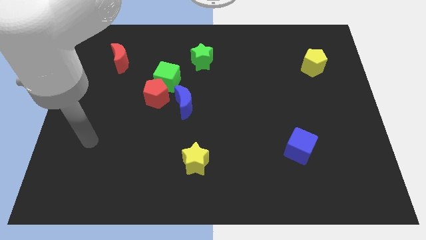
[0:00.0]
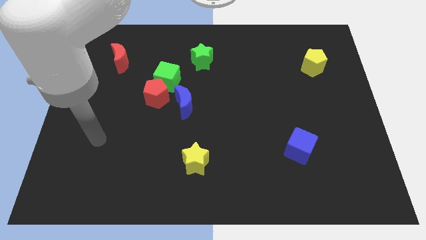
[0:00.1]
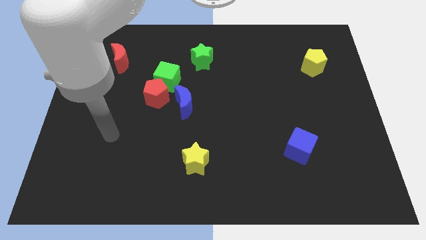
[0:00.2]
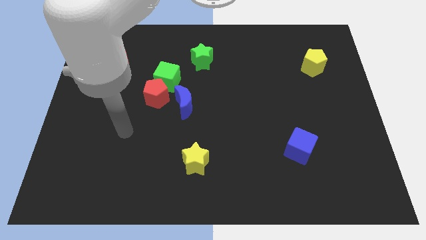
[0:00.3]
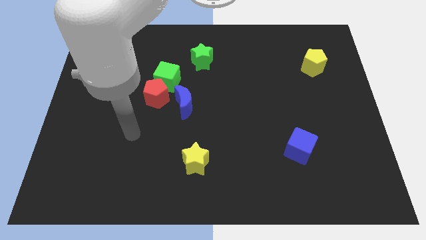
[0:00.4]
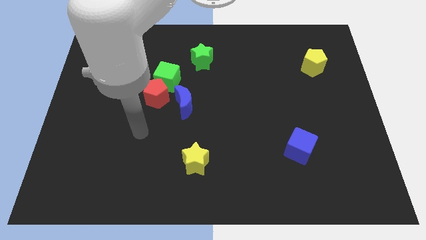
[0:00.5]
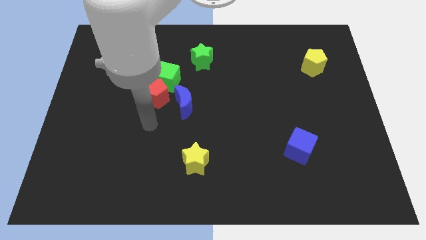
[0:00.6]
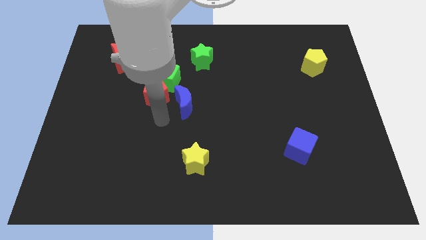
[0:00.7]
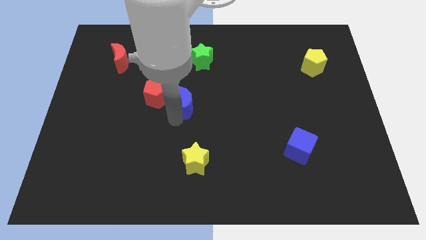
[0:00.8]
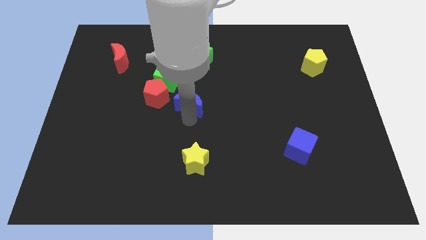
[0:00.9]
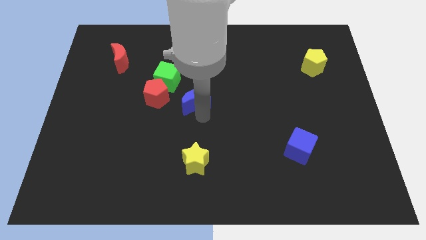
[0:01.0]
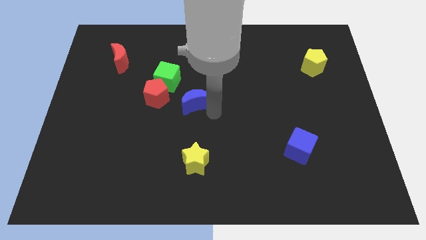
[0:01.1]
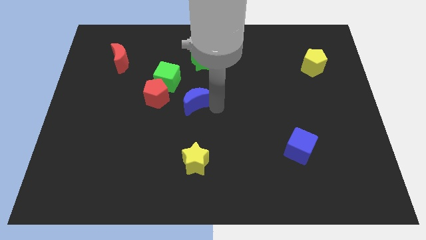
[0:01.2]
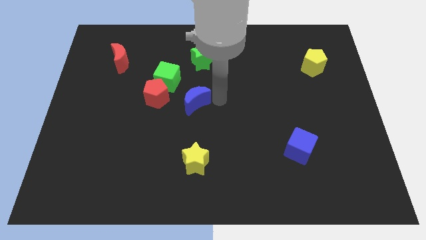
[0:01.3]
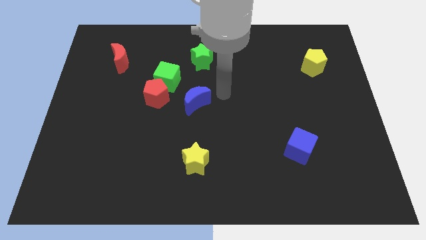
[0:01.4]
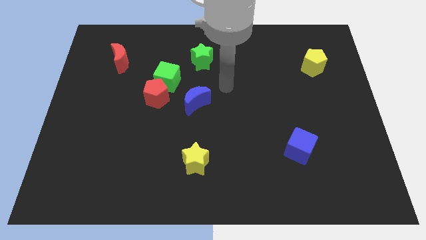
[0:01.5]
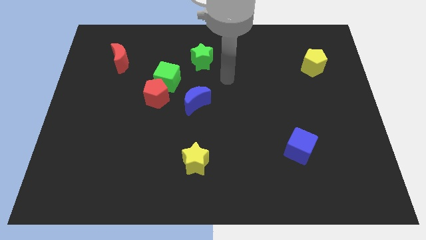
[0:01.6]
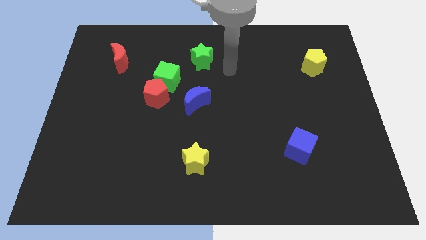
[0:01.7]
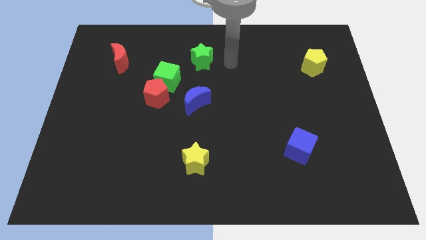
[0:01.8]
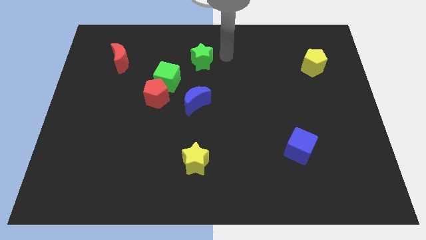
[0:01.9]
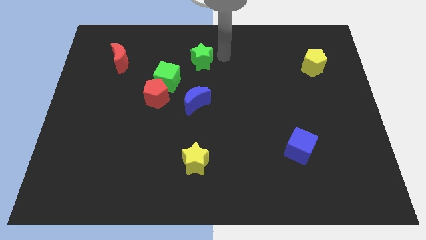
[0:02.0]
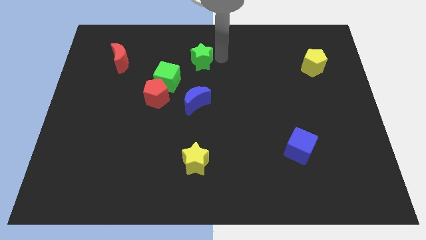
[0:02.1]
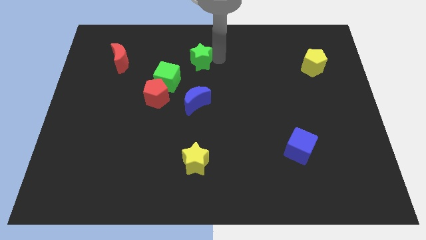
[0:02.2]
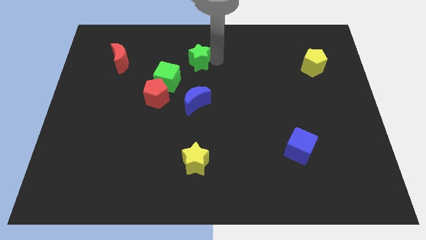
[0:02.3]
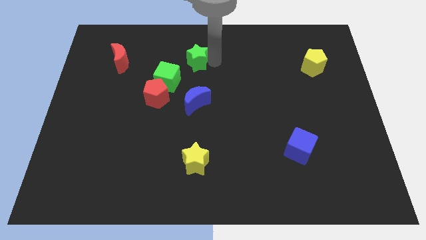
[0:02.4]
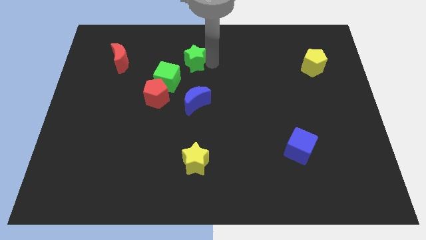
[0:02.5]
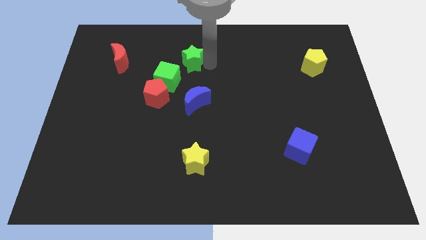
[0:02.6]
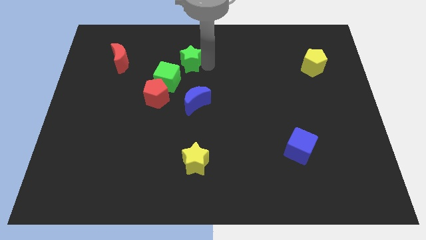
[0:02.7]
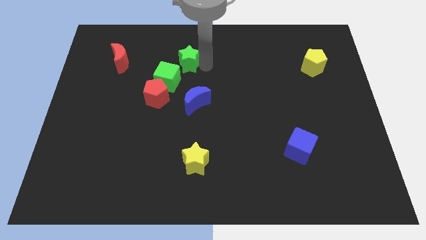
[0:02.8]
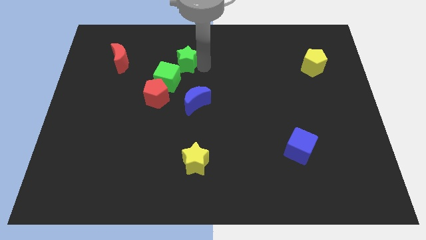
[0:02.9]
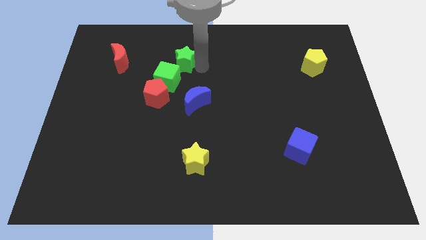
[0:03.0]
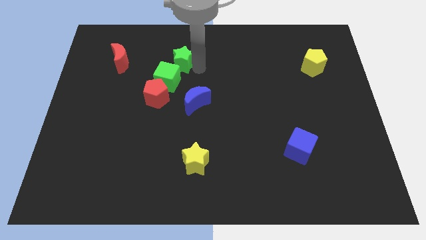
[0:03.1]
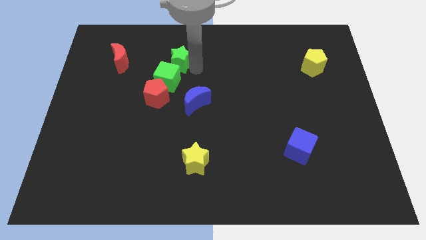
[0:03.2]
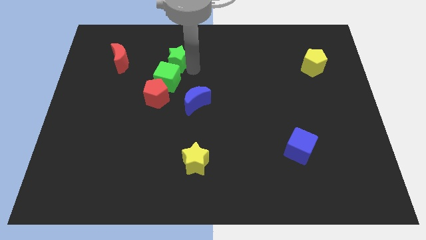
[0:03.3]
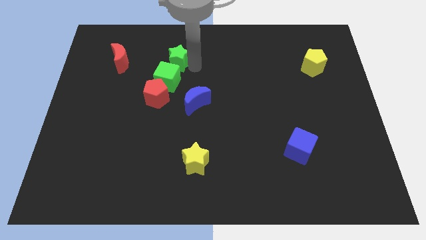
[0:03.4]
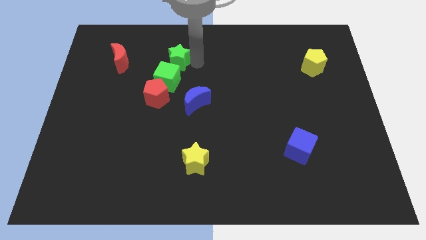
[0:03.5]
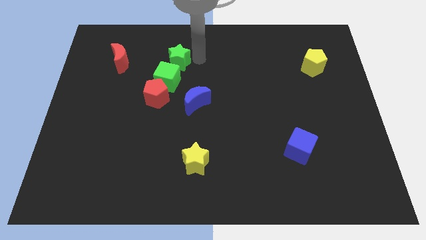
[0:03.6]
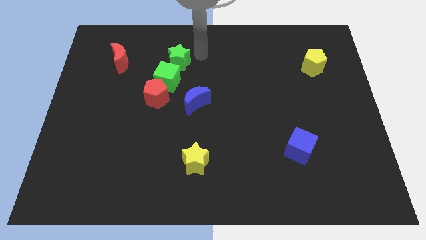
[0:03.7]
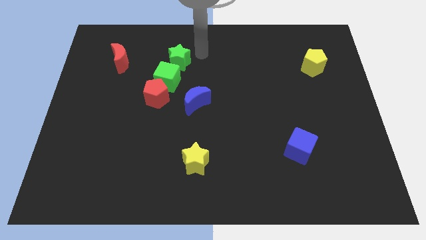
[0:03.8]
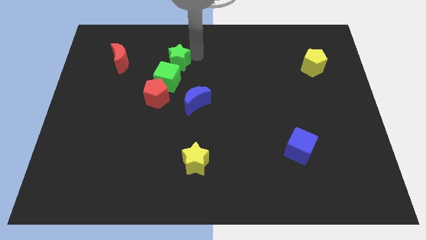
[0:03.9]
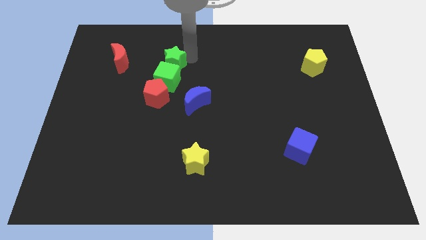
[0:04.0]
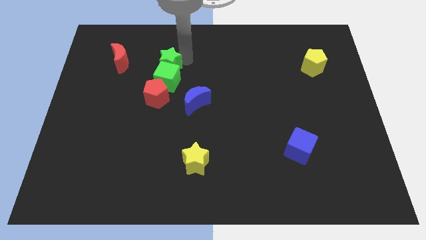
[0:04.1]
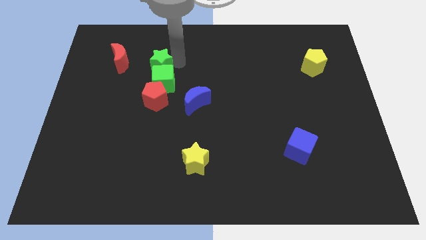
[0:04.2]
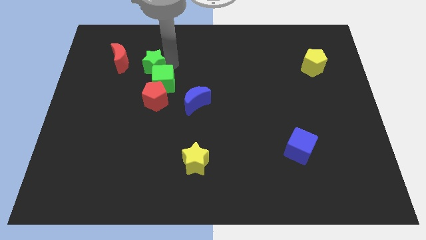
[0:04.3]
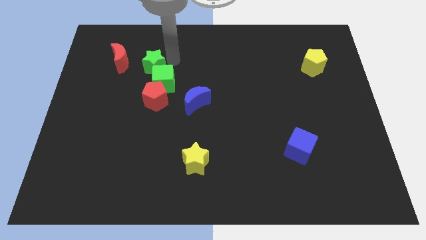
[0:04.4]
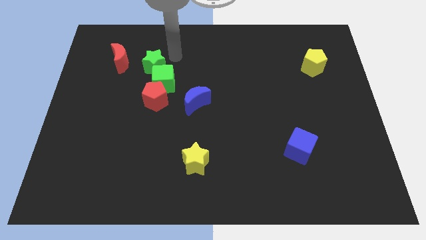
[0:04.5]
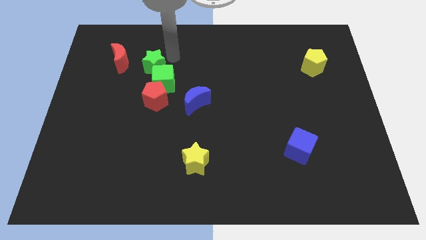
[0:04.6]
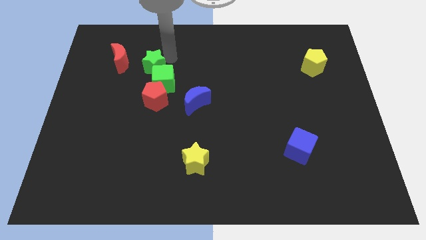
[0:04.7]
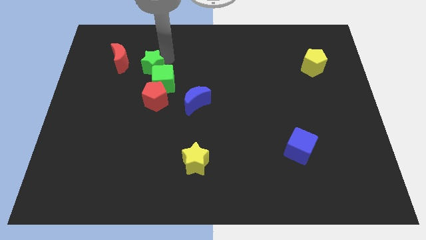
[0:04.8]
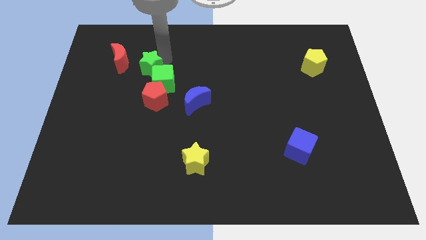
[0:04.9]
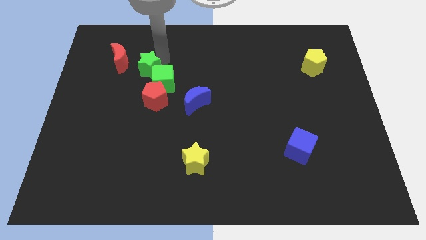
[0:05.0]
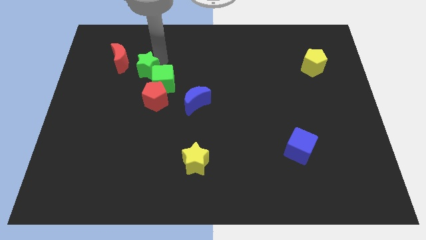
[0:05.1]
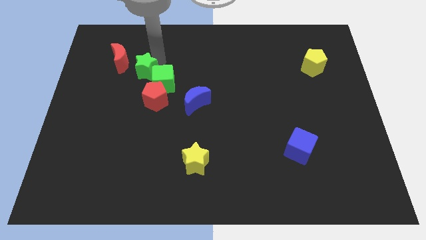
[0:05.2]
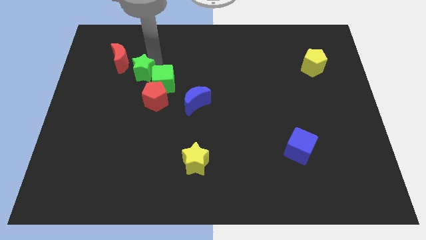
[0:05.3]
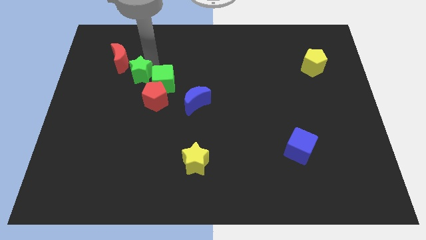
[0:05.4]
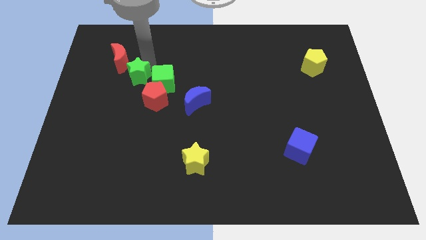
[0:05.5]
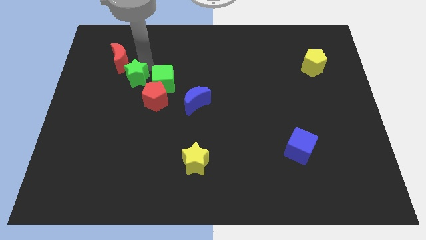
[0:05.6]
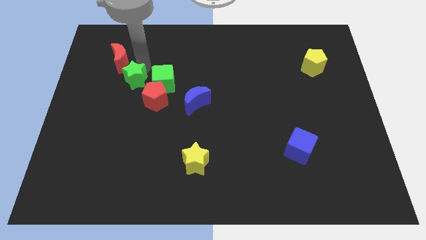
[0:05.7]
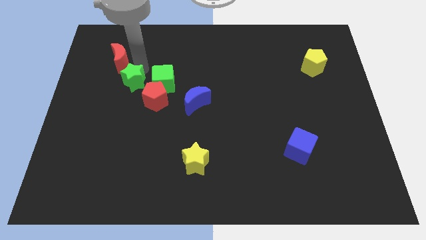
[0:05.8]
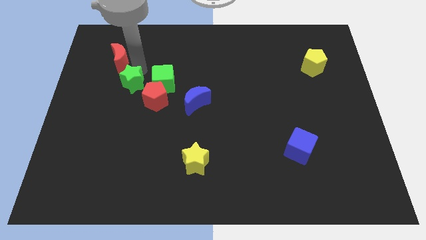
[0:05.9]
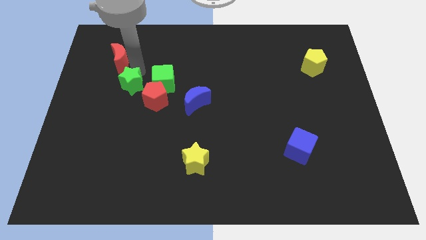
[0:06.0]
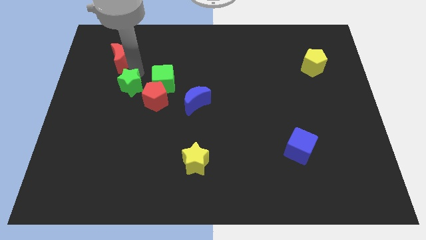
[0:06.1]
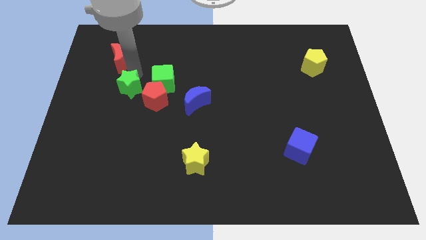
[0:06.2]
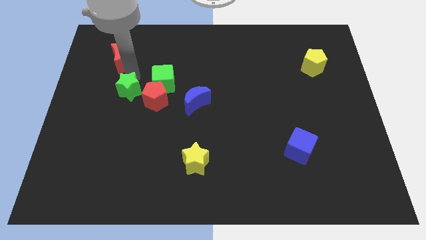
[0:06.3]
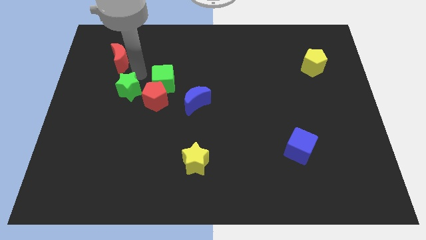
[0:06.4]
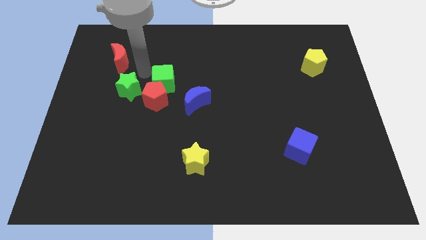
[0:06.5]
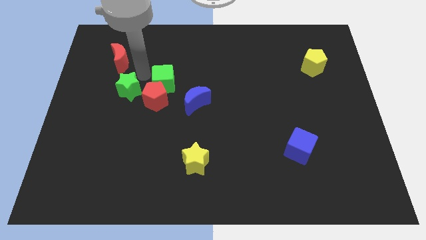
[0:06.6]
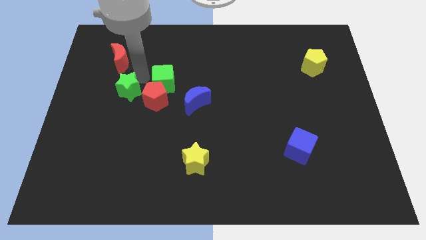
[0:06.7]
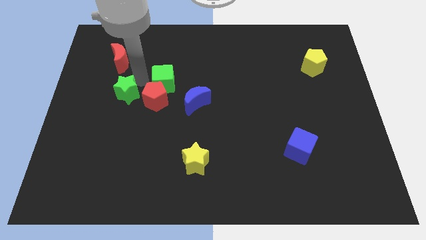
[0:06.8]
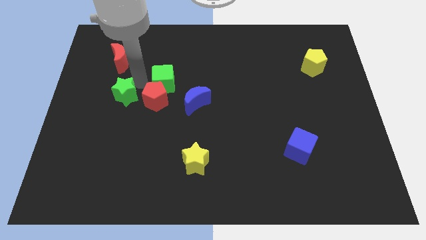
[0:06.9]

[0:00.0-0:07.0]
slide the green star down and then left

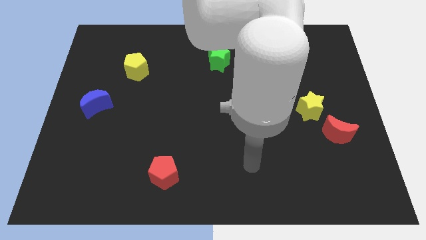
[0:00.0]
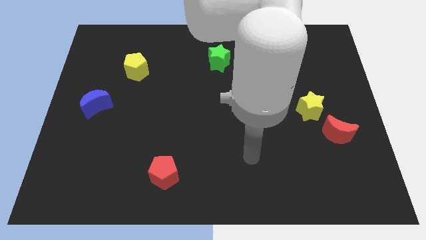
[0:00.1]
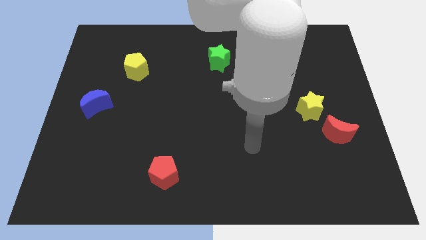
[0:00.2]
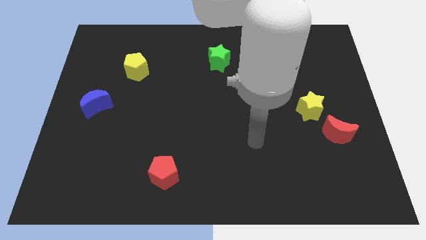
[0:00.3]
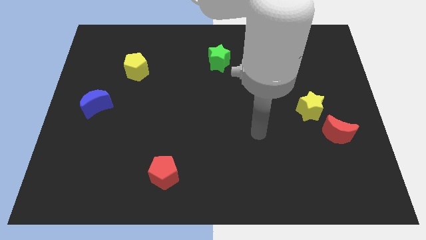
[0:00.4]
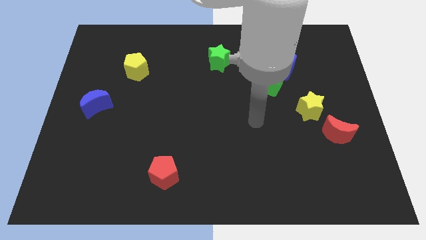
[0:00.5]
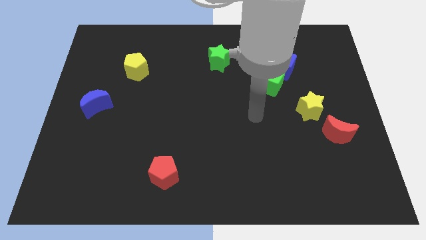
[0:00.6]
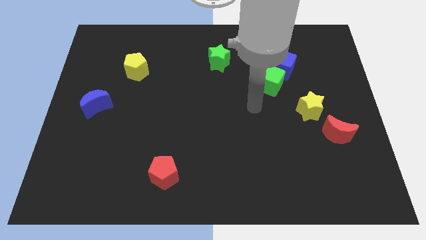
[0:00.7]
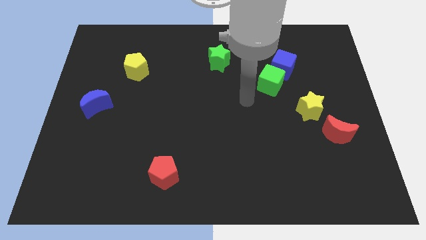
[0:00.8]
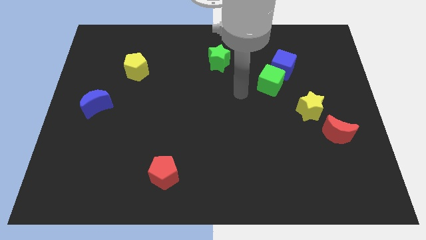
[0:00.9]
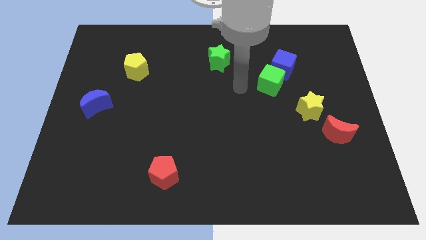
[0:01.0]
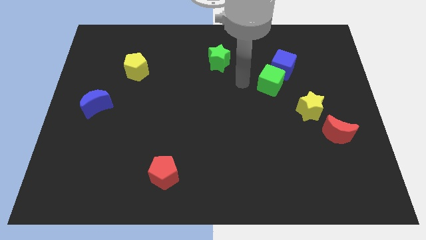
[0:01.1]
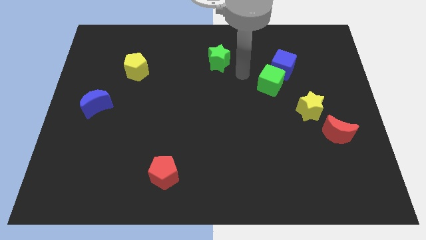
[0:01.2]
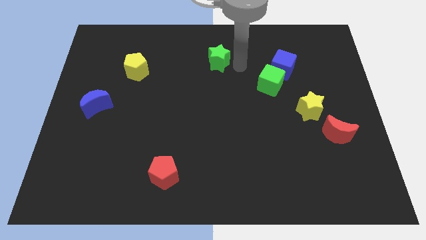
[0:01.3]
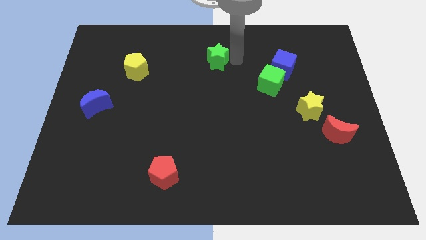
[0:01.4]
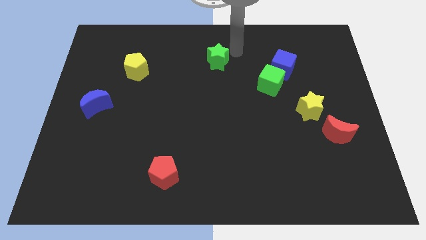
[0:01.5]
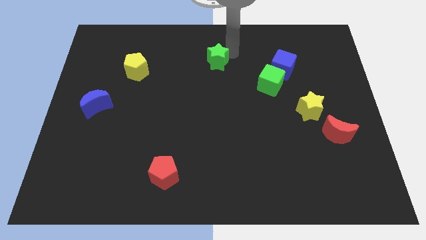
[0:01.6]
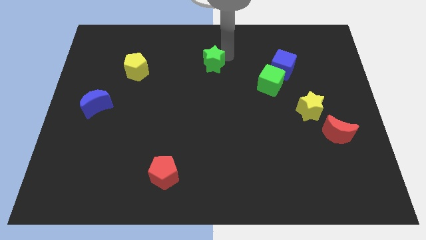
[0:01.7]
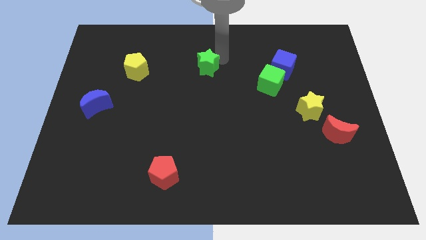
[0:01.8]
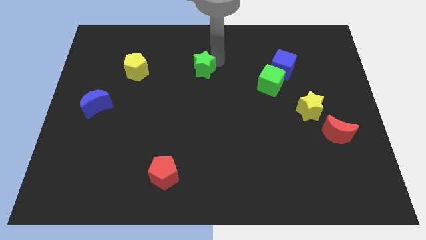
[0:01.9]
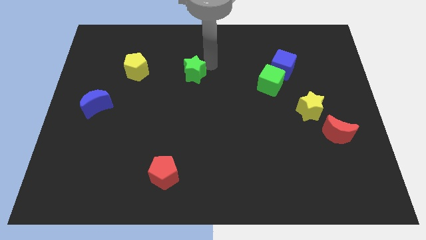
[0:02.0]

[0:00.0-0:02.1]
slightly push the green star diagonally downwards and to the left
